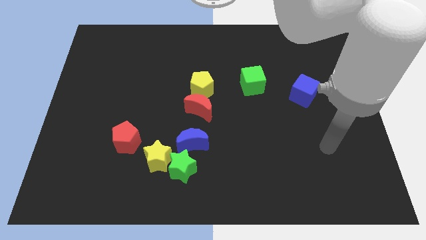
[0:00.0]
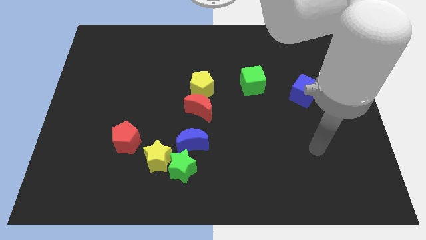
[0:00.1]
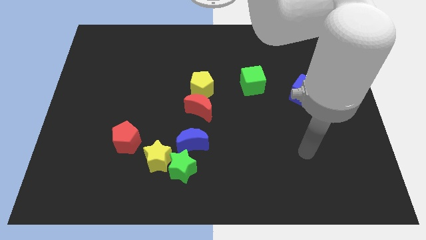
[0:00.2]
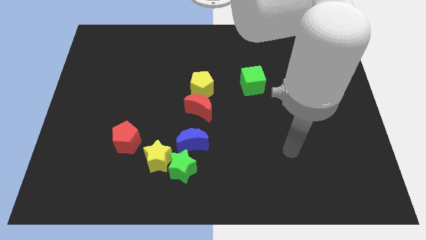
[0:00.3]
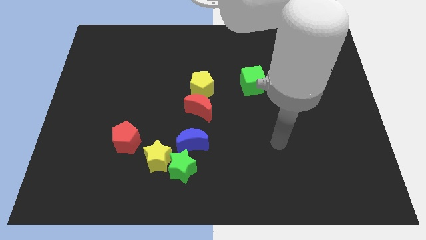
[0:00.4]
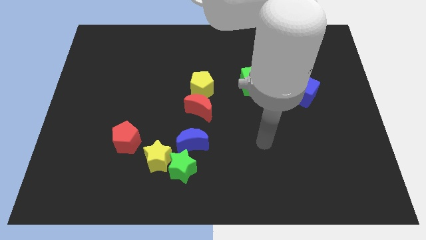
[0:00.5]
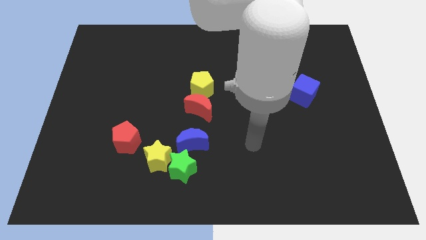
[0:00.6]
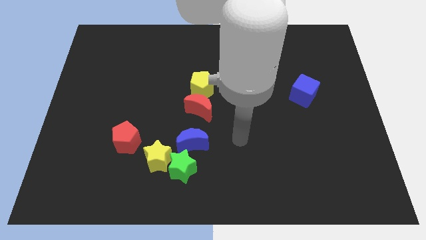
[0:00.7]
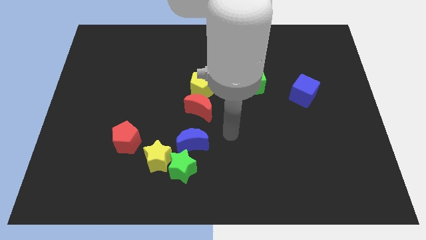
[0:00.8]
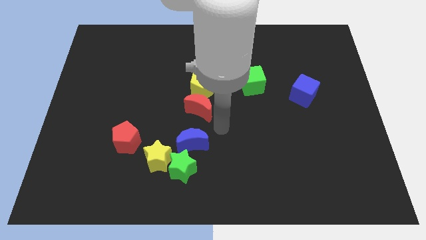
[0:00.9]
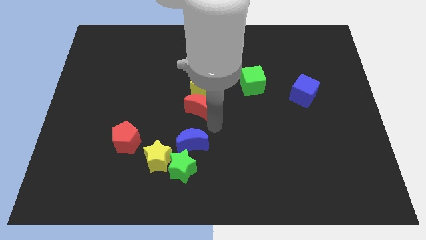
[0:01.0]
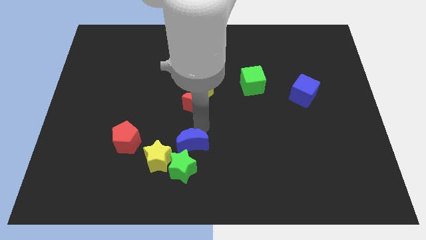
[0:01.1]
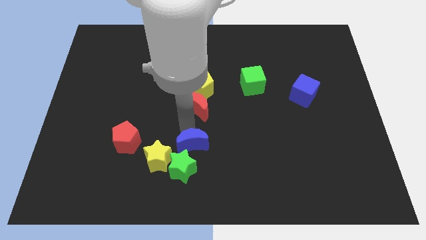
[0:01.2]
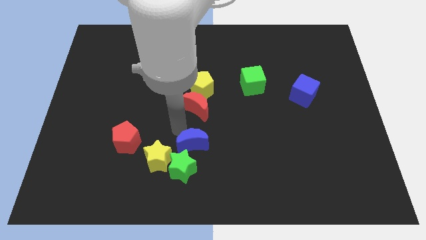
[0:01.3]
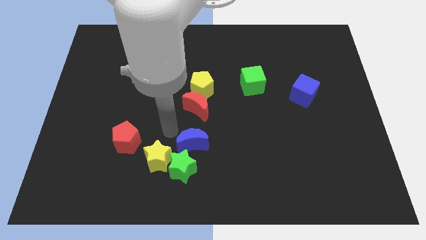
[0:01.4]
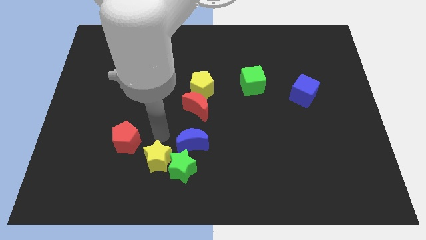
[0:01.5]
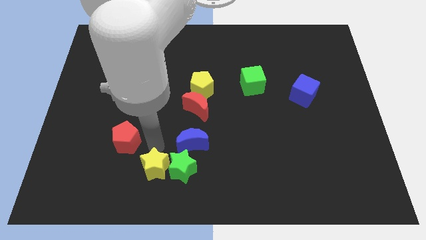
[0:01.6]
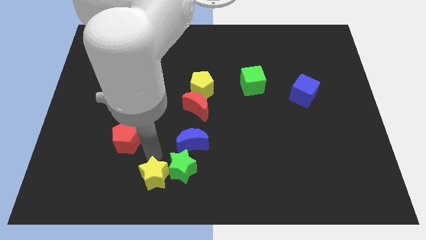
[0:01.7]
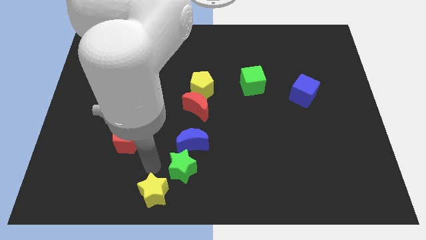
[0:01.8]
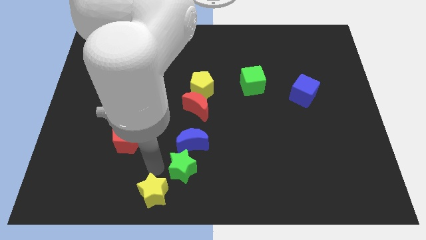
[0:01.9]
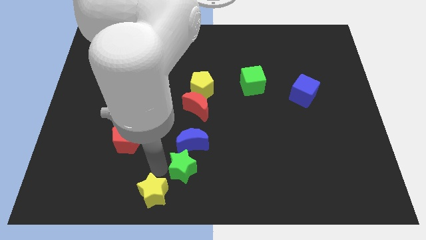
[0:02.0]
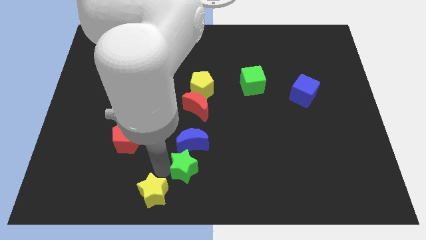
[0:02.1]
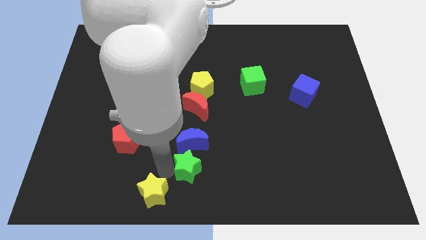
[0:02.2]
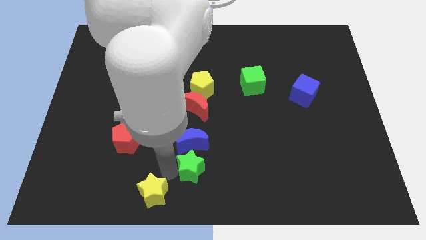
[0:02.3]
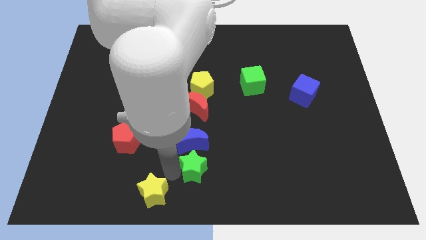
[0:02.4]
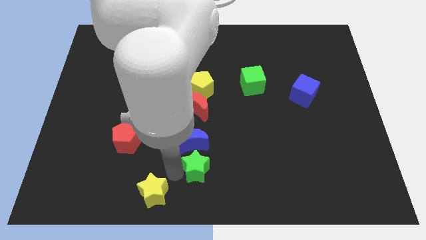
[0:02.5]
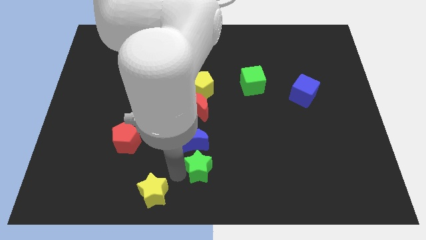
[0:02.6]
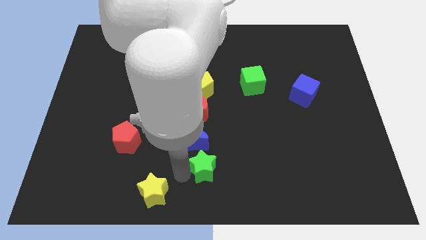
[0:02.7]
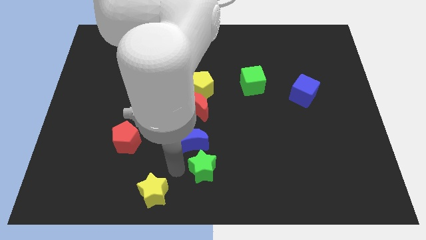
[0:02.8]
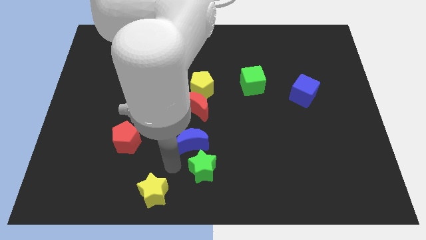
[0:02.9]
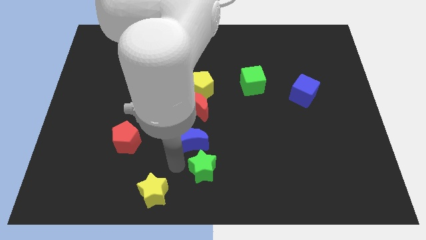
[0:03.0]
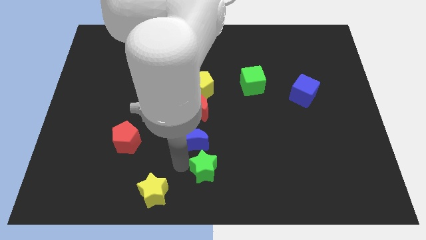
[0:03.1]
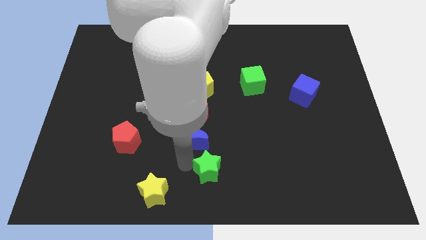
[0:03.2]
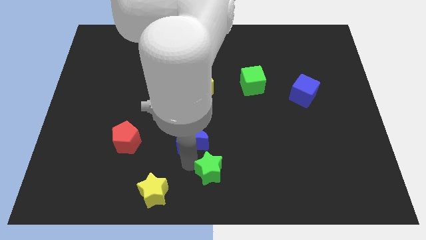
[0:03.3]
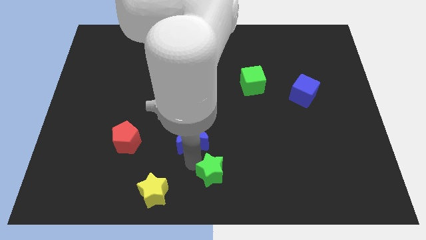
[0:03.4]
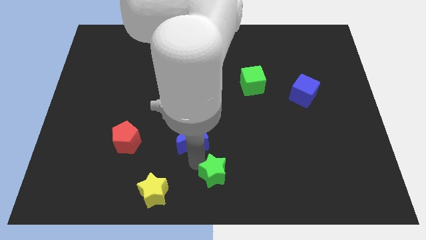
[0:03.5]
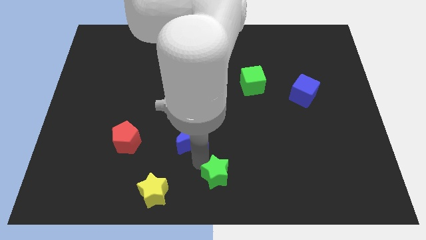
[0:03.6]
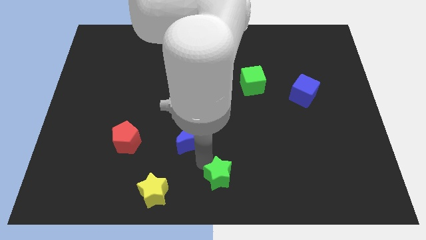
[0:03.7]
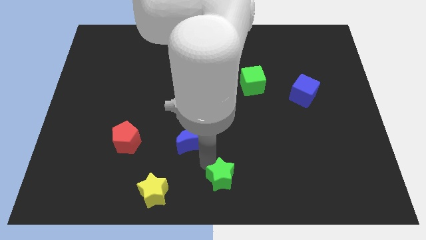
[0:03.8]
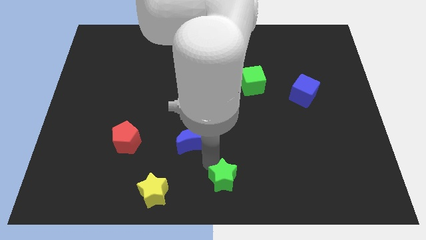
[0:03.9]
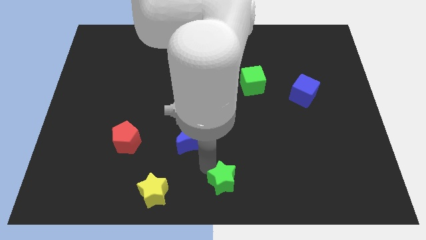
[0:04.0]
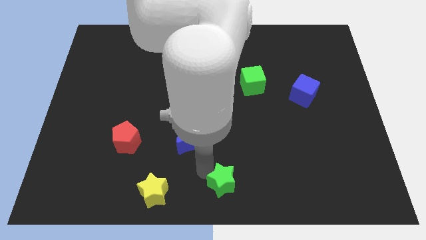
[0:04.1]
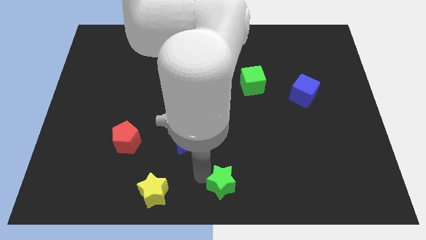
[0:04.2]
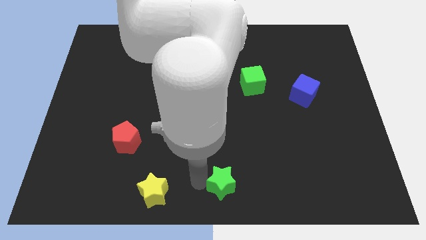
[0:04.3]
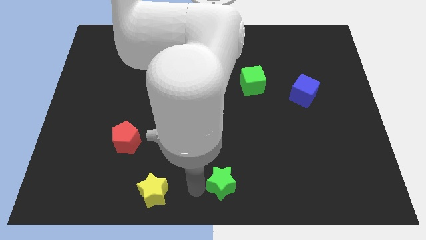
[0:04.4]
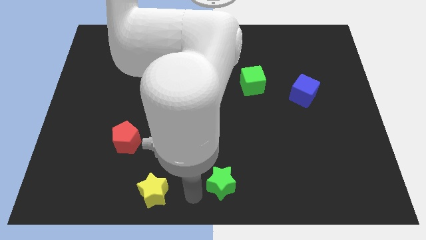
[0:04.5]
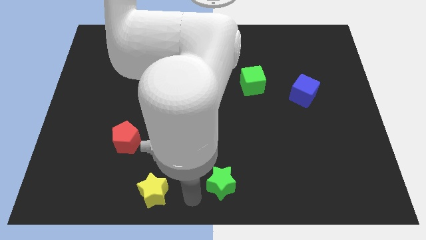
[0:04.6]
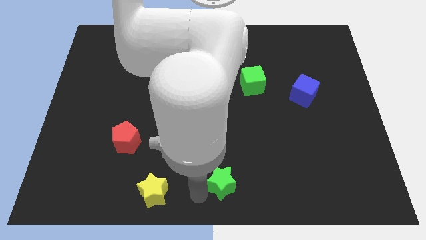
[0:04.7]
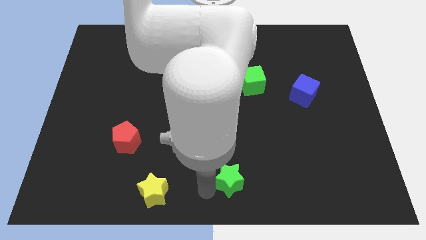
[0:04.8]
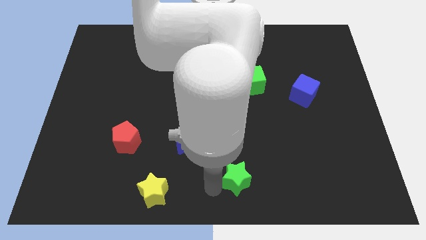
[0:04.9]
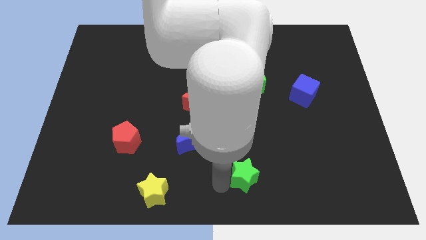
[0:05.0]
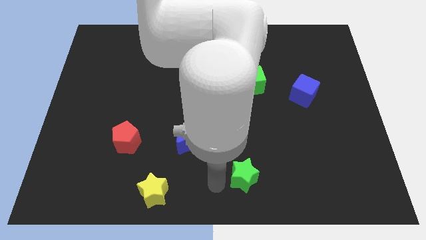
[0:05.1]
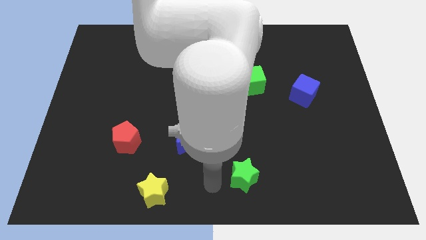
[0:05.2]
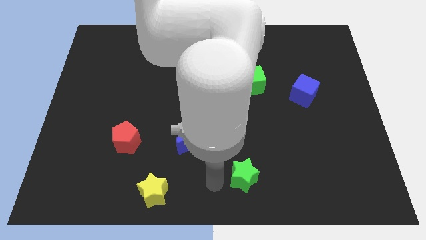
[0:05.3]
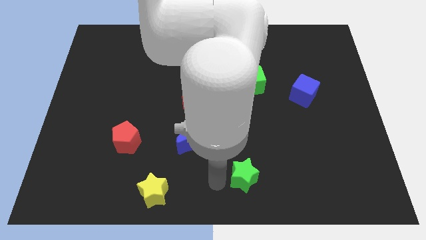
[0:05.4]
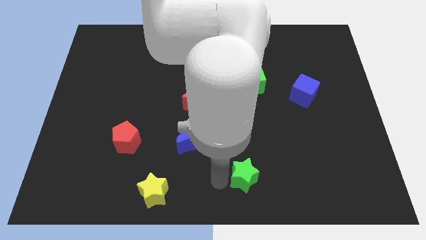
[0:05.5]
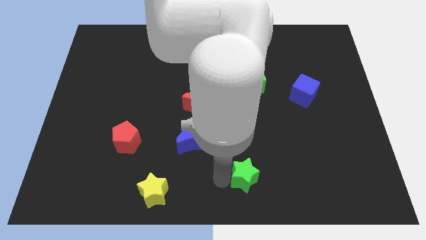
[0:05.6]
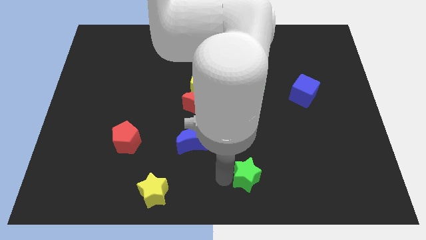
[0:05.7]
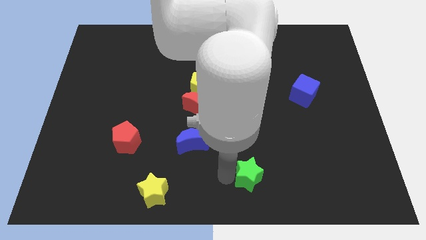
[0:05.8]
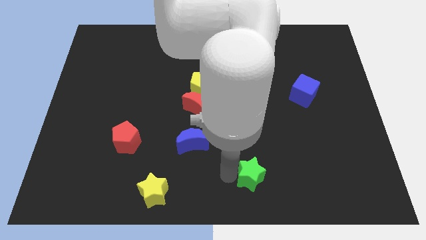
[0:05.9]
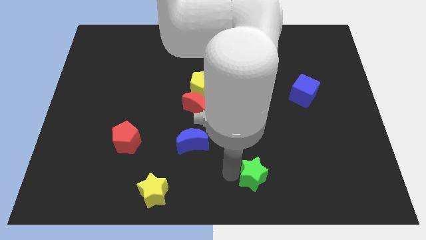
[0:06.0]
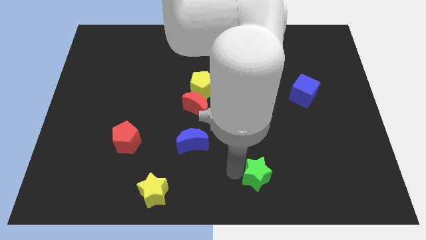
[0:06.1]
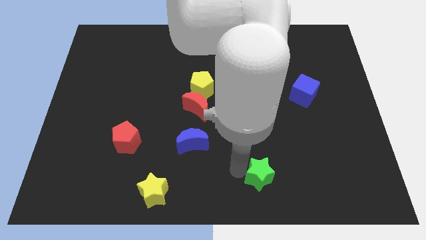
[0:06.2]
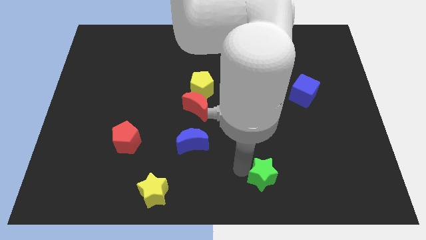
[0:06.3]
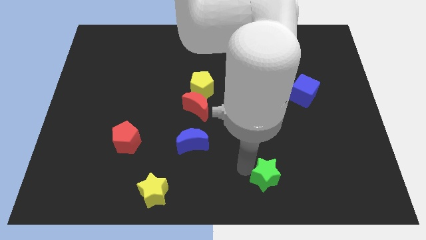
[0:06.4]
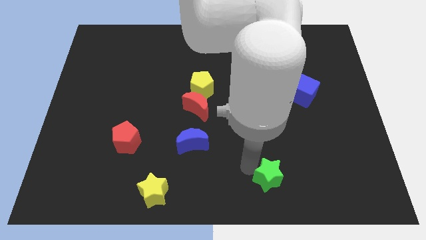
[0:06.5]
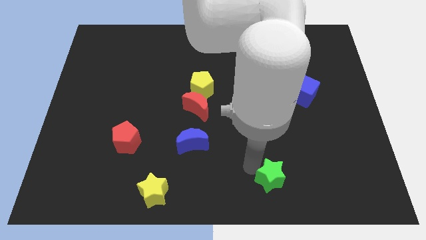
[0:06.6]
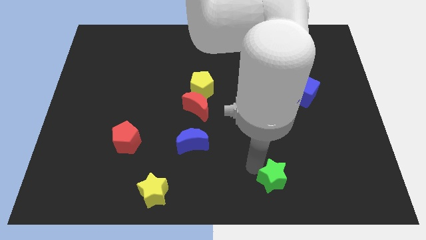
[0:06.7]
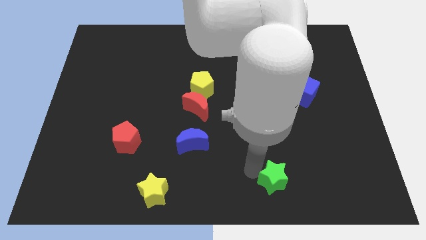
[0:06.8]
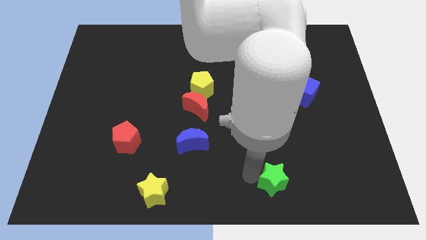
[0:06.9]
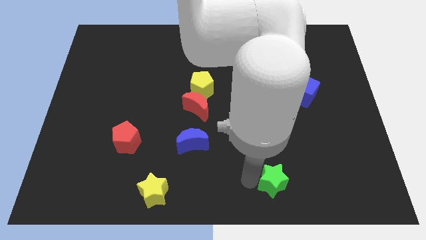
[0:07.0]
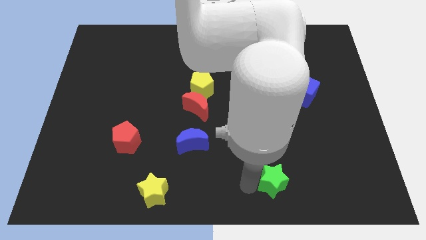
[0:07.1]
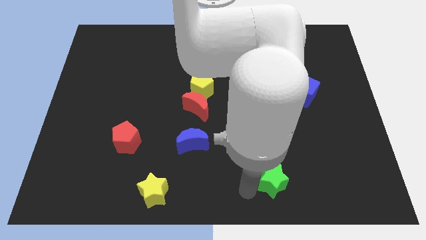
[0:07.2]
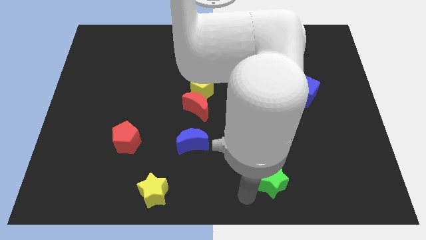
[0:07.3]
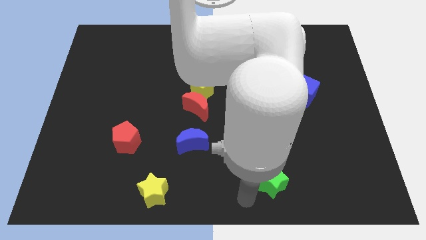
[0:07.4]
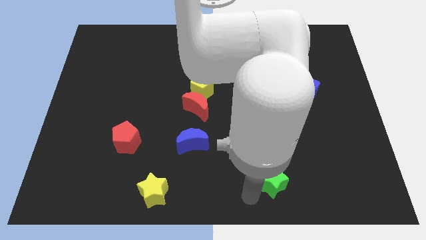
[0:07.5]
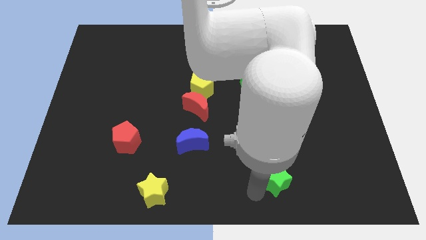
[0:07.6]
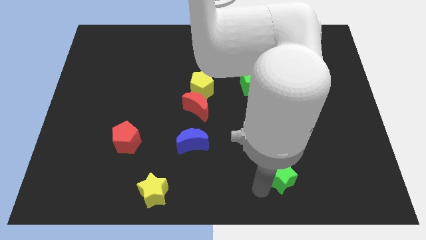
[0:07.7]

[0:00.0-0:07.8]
slide the green star to the right

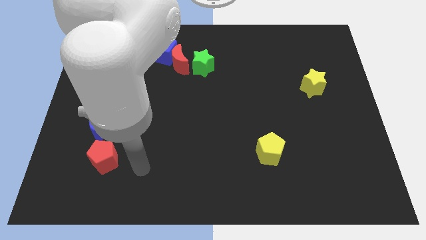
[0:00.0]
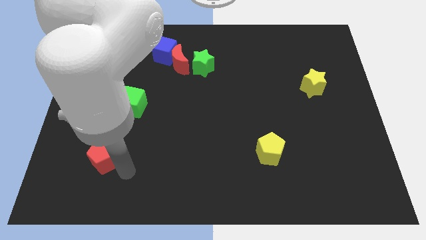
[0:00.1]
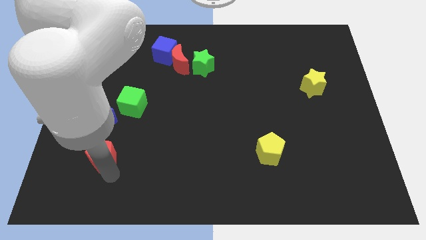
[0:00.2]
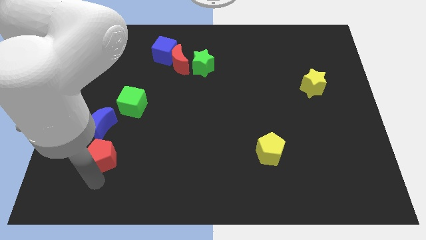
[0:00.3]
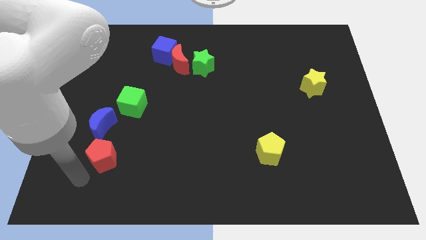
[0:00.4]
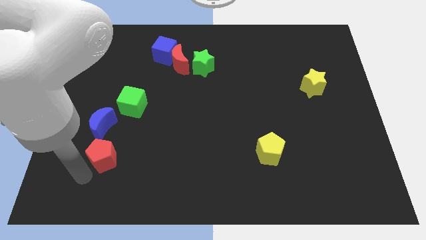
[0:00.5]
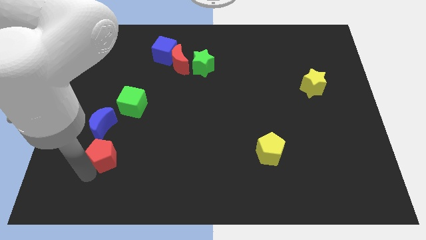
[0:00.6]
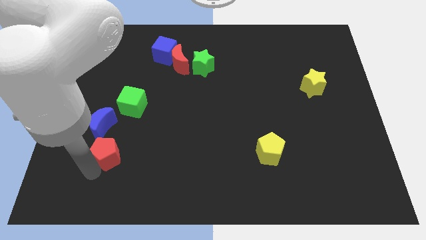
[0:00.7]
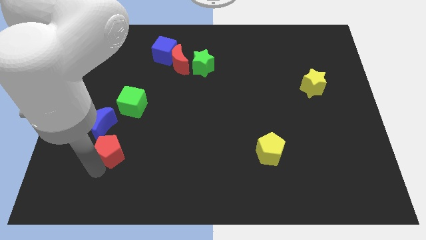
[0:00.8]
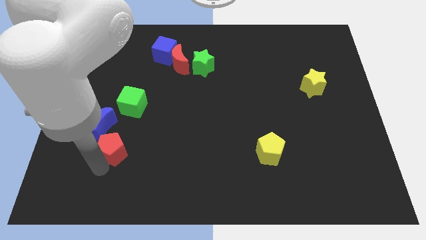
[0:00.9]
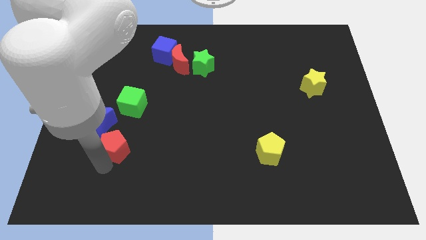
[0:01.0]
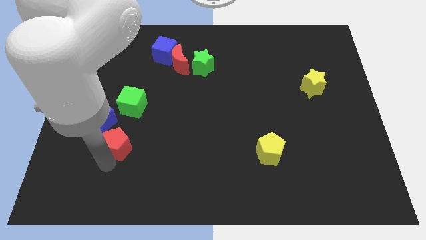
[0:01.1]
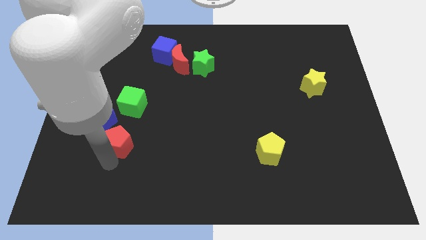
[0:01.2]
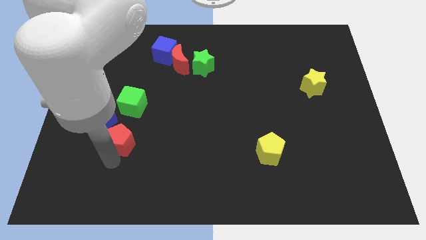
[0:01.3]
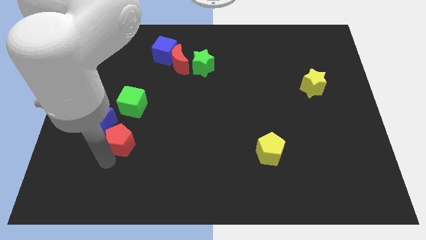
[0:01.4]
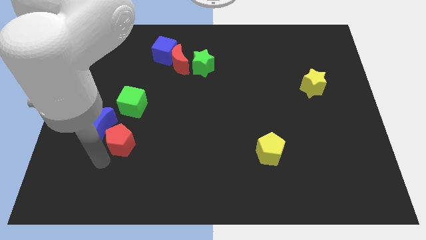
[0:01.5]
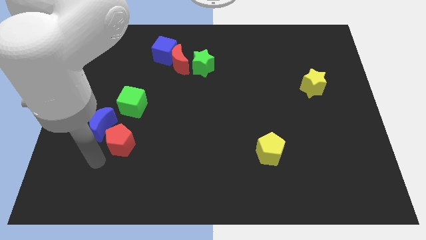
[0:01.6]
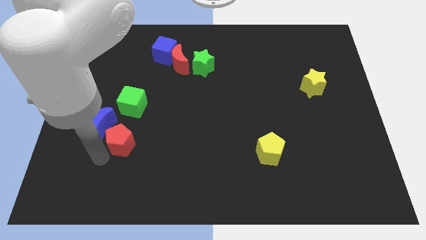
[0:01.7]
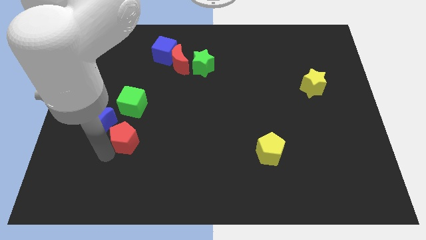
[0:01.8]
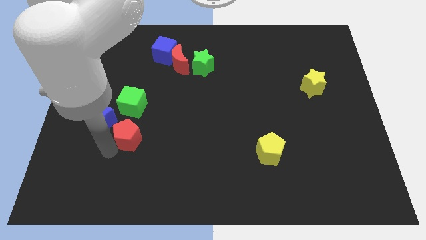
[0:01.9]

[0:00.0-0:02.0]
push the red pentagon up and right diagonally a little bit
